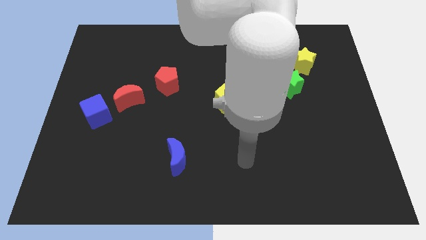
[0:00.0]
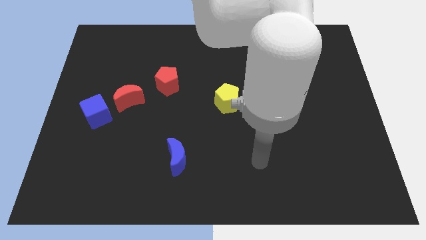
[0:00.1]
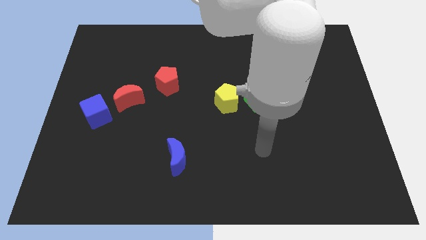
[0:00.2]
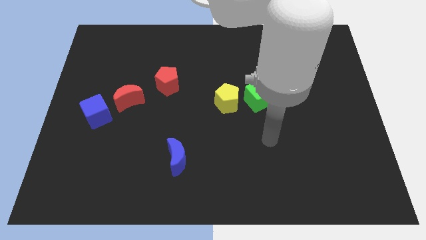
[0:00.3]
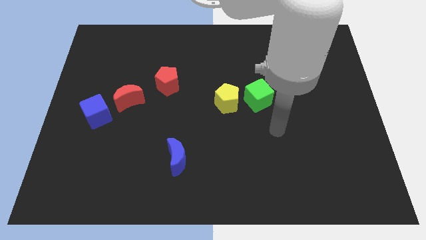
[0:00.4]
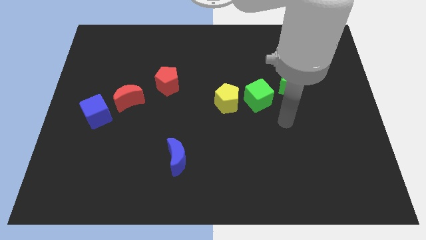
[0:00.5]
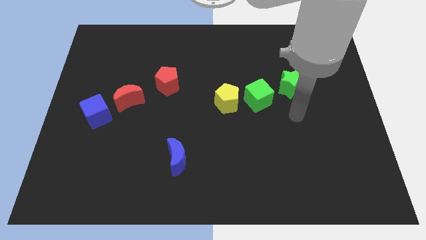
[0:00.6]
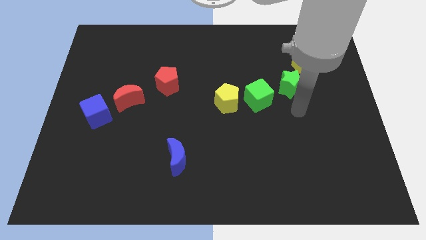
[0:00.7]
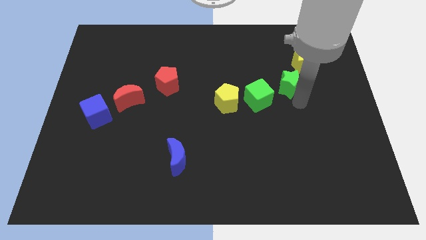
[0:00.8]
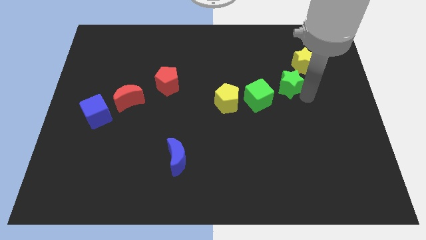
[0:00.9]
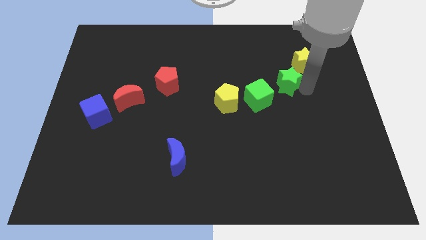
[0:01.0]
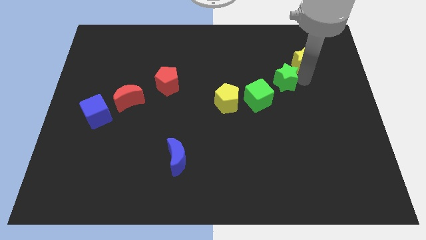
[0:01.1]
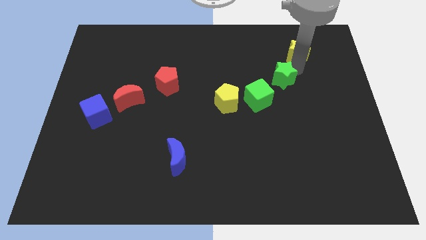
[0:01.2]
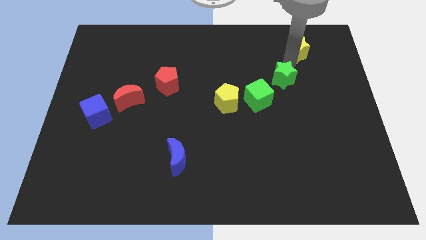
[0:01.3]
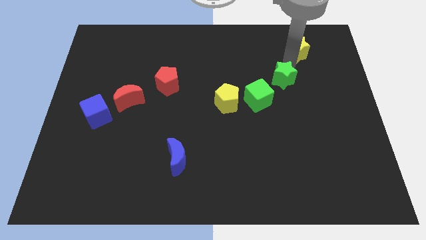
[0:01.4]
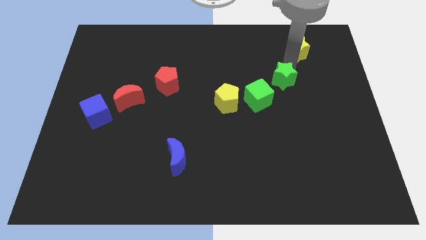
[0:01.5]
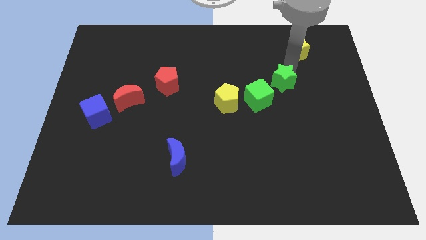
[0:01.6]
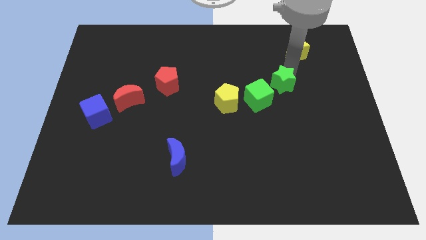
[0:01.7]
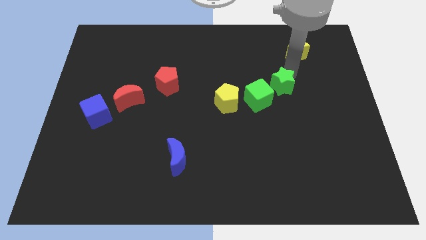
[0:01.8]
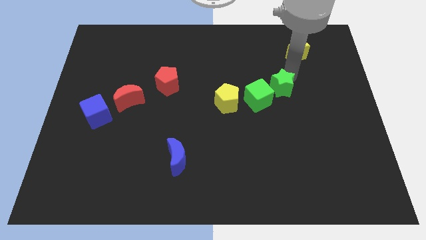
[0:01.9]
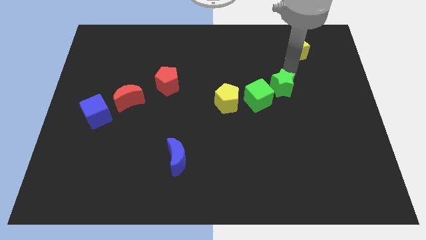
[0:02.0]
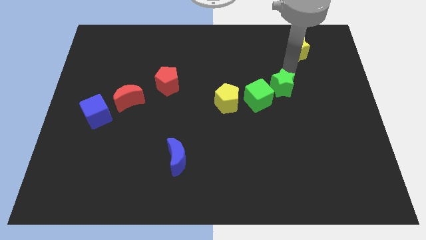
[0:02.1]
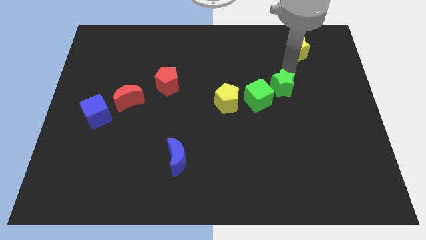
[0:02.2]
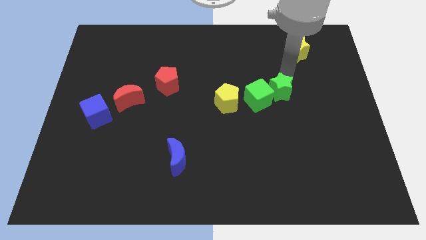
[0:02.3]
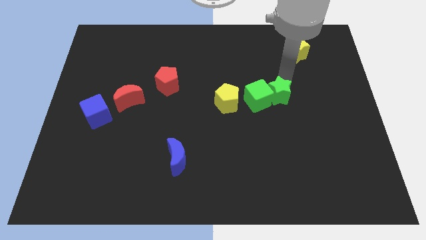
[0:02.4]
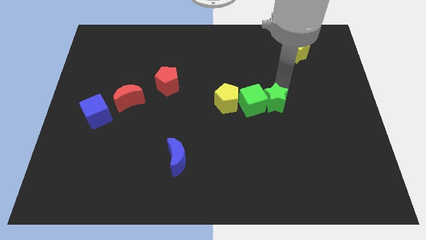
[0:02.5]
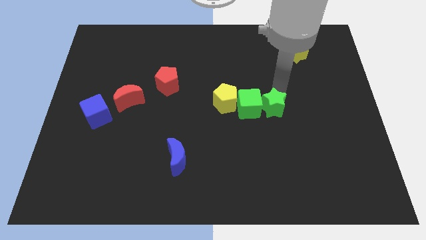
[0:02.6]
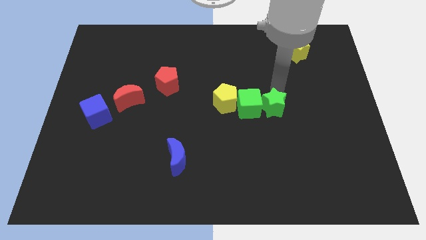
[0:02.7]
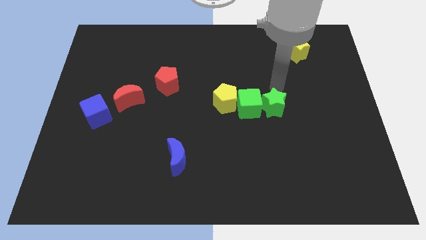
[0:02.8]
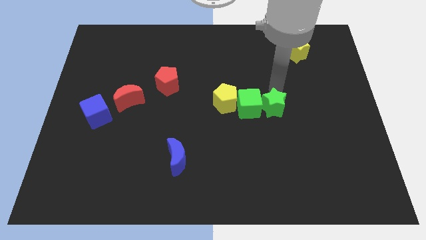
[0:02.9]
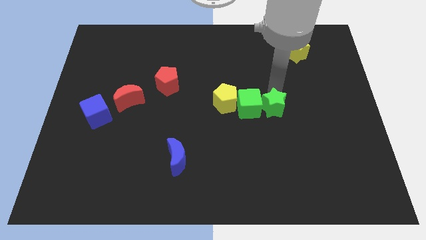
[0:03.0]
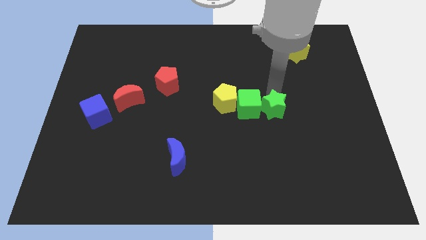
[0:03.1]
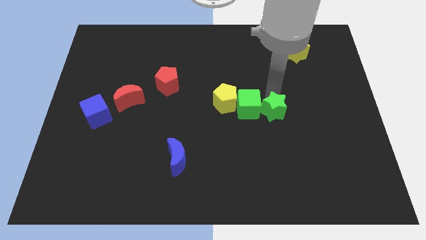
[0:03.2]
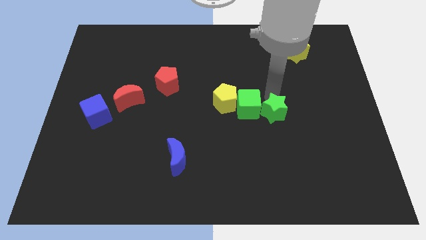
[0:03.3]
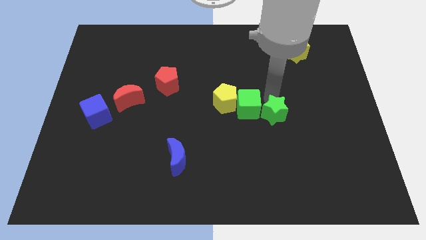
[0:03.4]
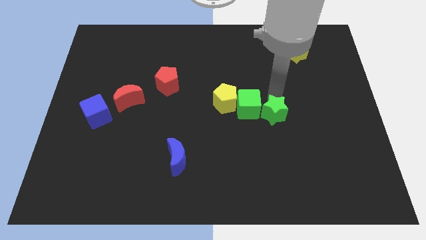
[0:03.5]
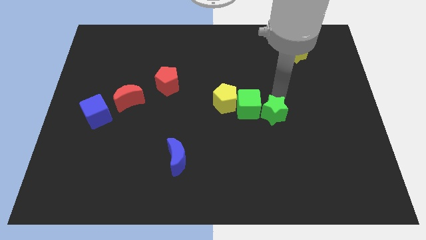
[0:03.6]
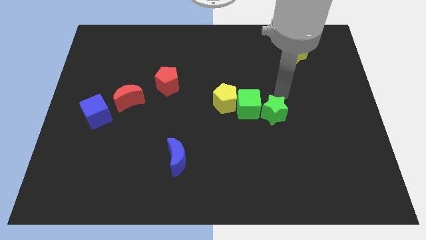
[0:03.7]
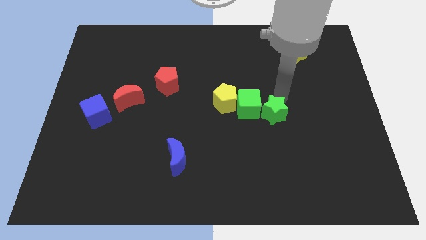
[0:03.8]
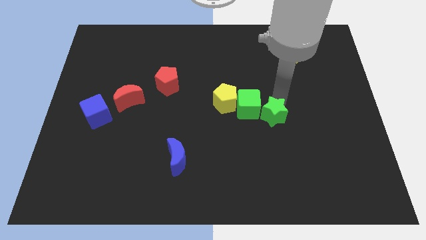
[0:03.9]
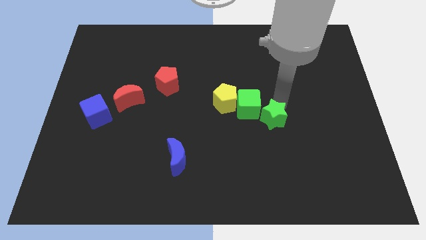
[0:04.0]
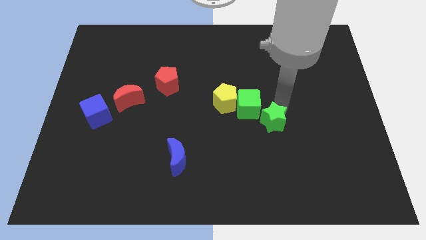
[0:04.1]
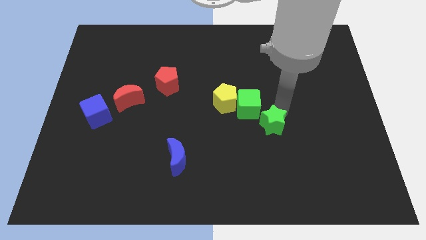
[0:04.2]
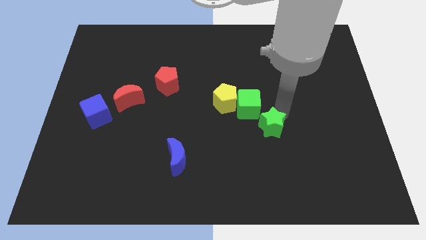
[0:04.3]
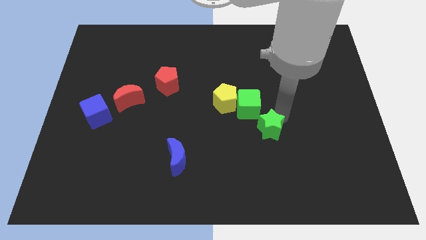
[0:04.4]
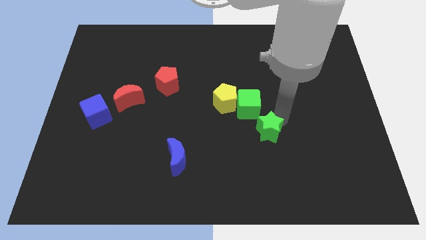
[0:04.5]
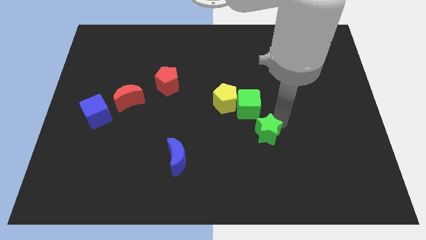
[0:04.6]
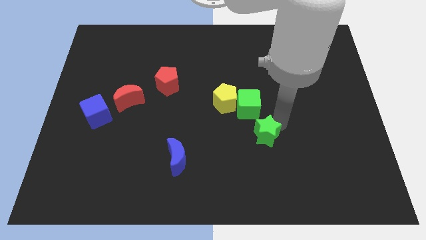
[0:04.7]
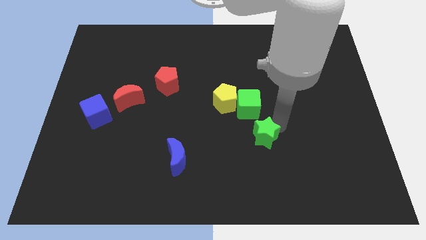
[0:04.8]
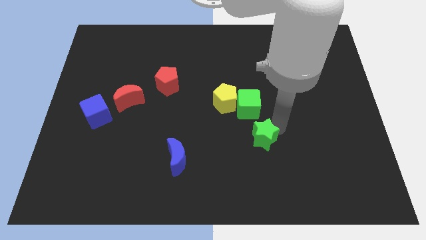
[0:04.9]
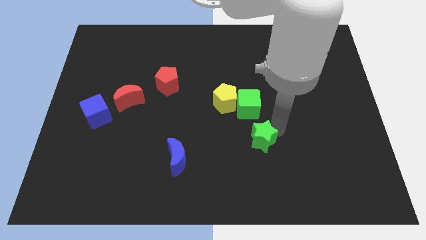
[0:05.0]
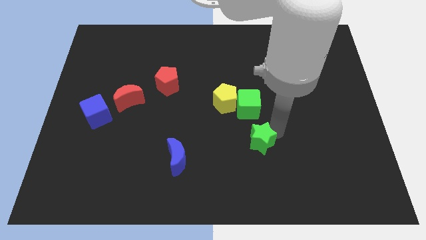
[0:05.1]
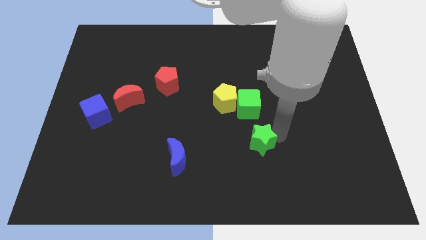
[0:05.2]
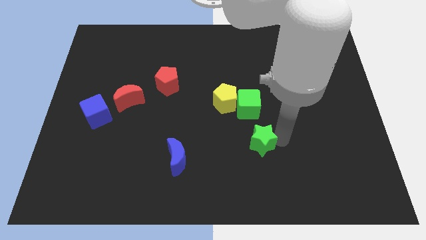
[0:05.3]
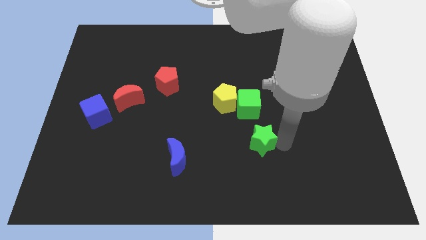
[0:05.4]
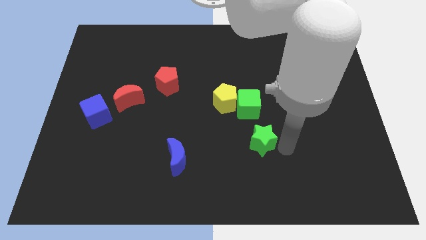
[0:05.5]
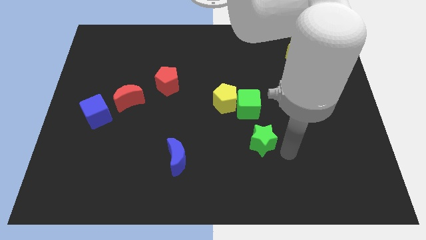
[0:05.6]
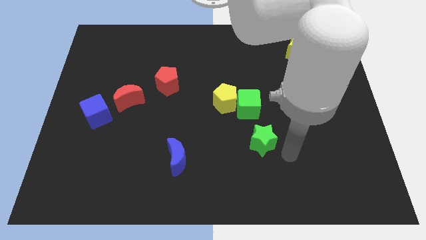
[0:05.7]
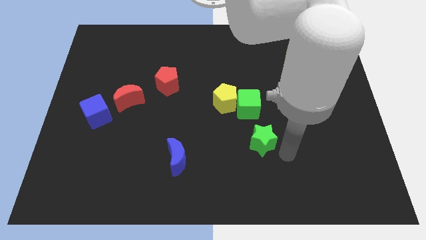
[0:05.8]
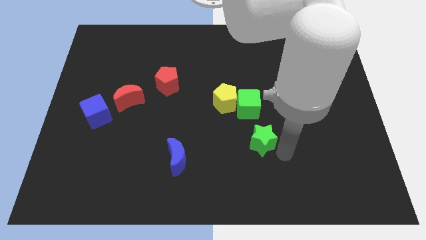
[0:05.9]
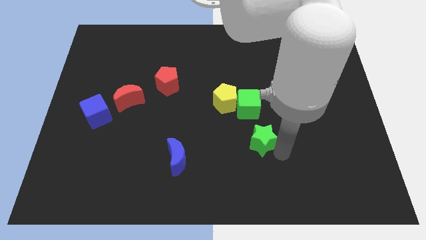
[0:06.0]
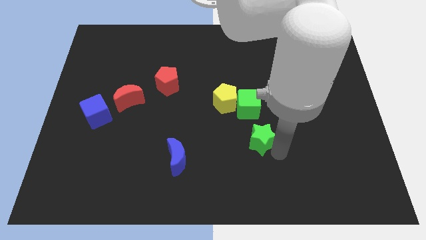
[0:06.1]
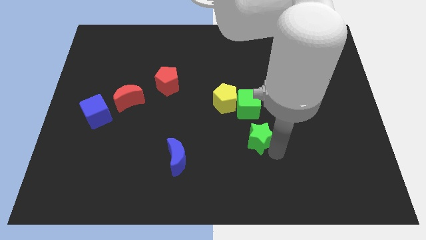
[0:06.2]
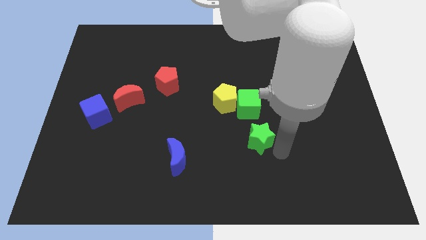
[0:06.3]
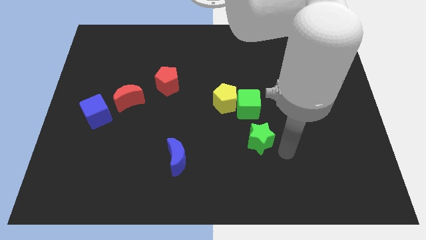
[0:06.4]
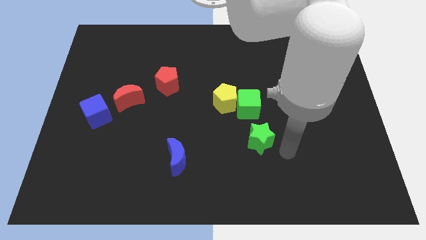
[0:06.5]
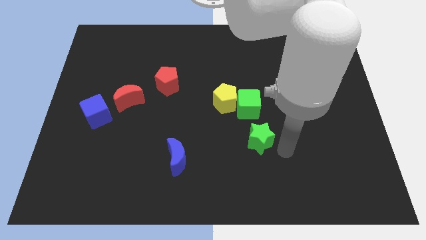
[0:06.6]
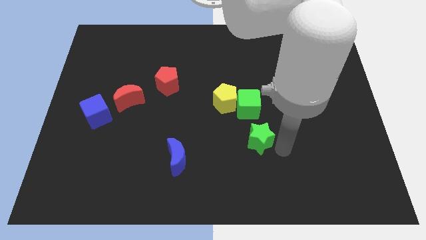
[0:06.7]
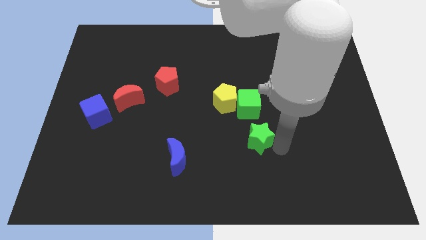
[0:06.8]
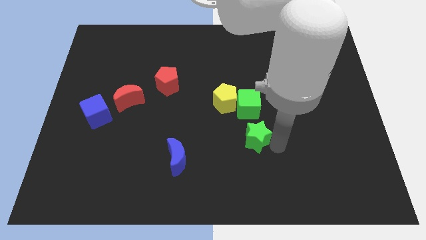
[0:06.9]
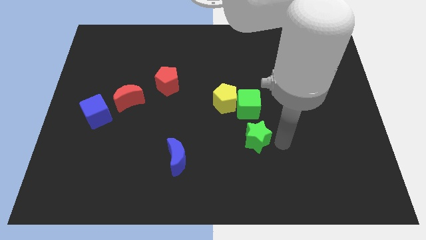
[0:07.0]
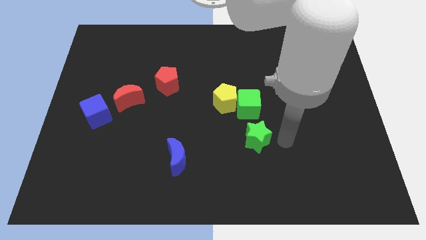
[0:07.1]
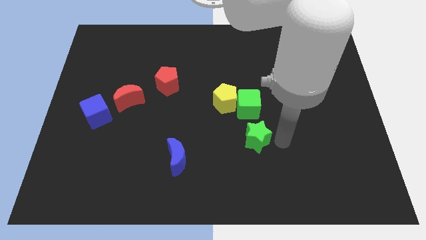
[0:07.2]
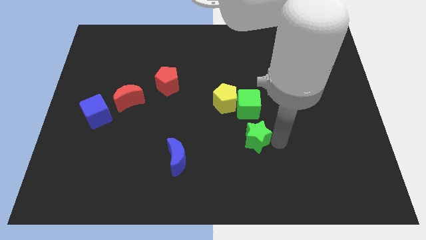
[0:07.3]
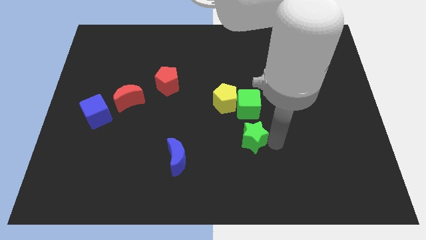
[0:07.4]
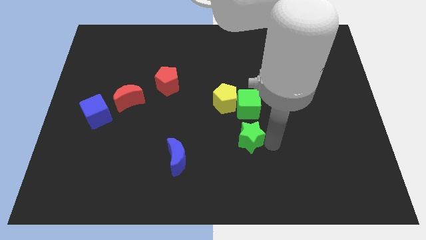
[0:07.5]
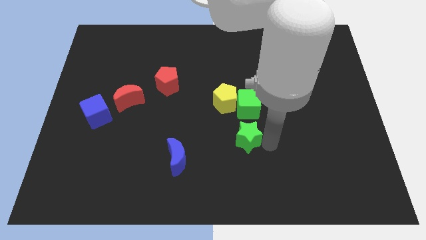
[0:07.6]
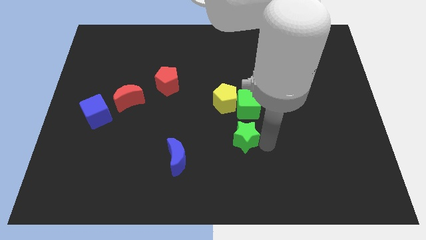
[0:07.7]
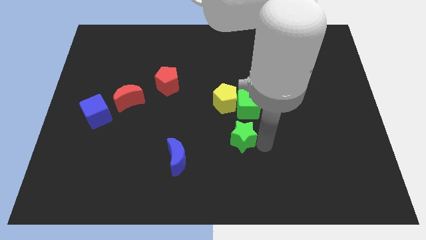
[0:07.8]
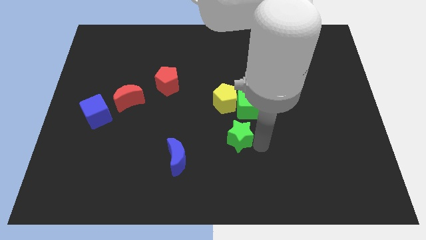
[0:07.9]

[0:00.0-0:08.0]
push the green star down and left diagonally

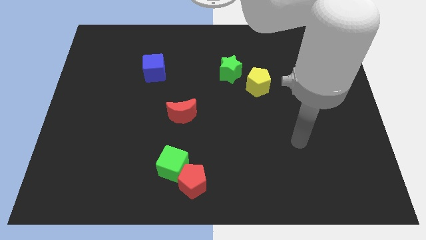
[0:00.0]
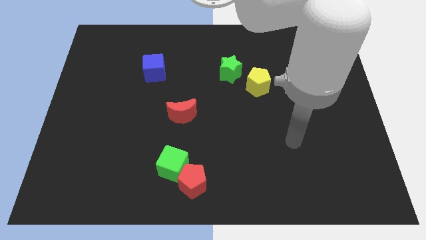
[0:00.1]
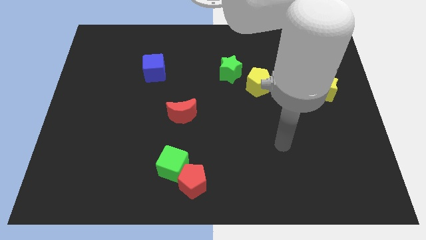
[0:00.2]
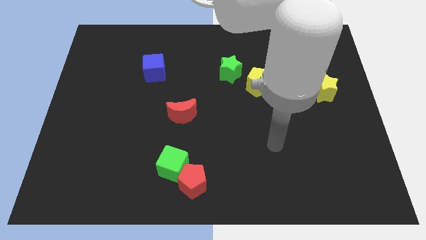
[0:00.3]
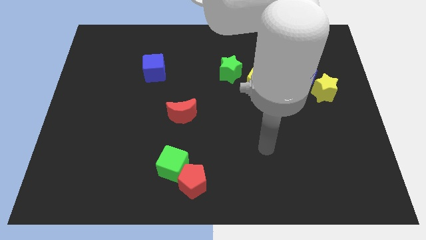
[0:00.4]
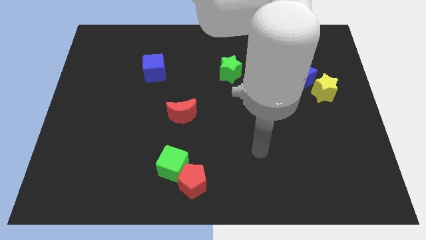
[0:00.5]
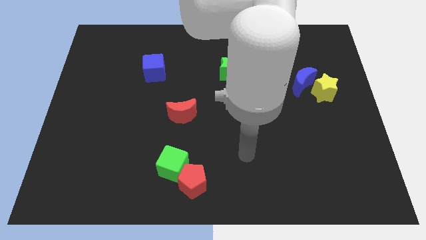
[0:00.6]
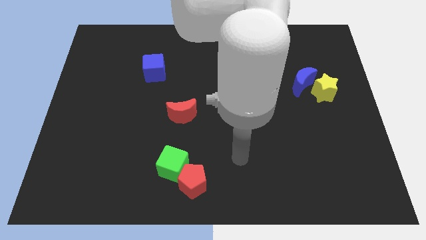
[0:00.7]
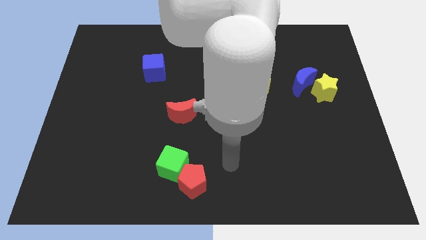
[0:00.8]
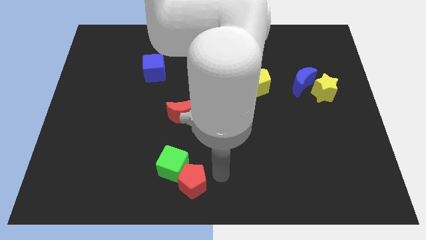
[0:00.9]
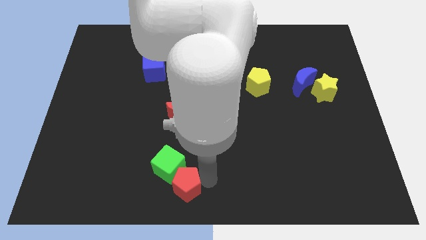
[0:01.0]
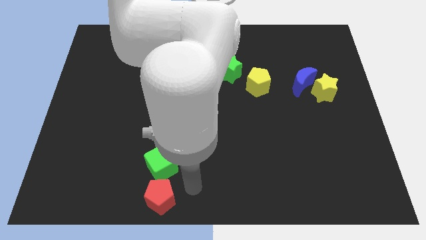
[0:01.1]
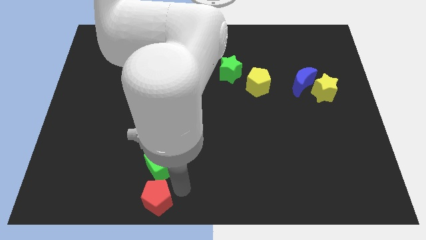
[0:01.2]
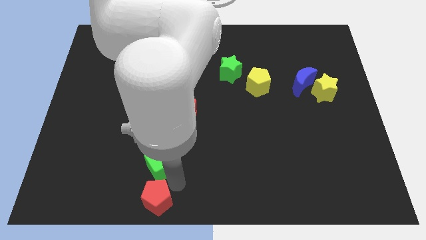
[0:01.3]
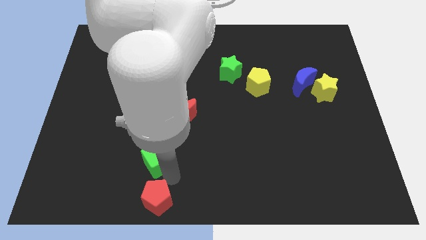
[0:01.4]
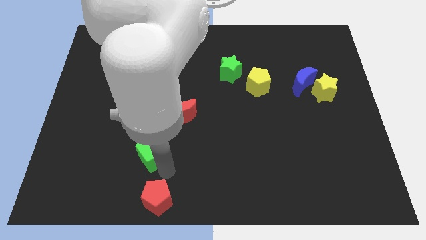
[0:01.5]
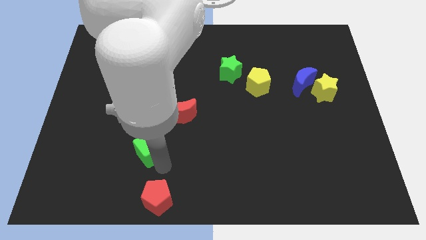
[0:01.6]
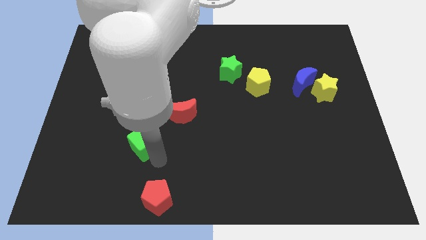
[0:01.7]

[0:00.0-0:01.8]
slide the green cube upwards and left a bit
